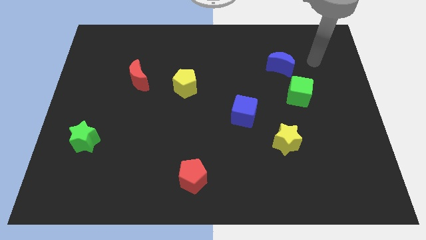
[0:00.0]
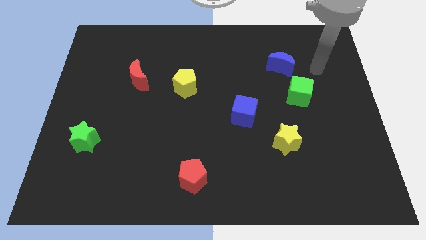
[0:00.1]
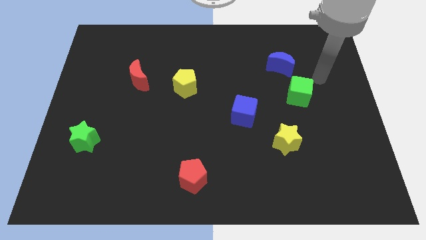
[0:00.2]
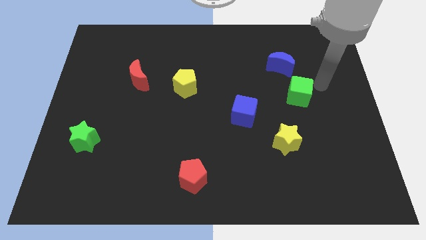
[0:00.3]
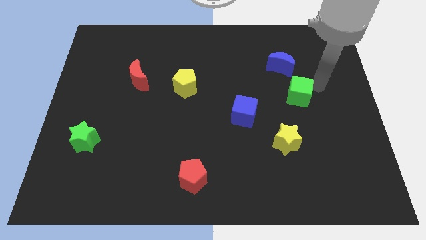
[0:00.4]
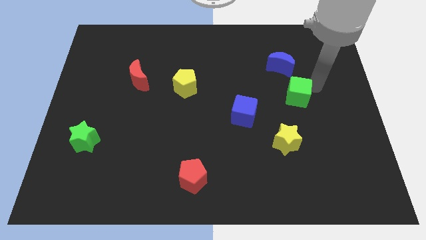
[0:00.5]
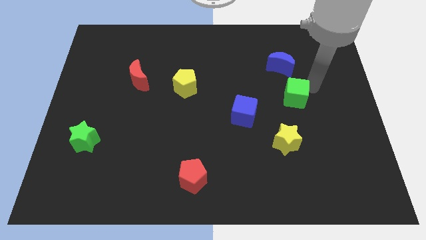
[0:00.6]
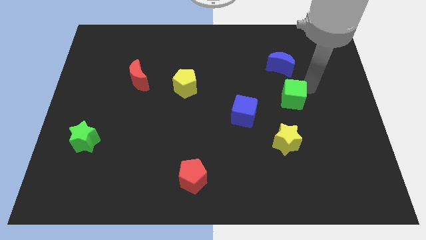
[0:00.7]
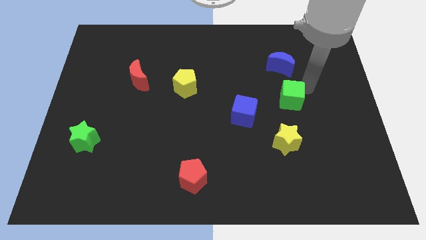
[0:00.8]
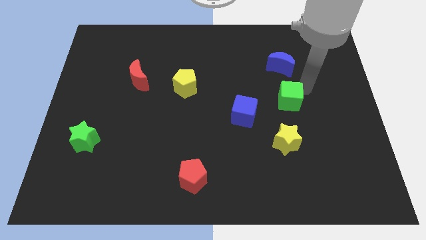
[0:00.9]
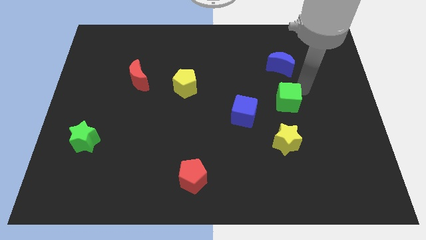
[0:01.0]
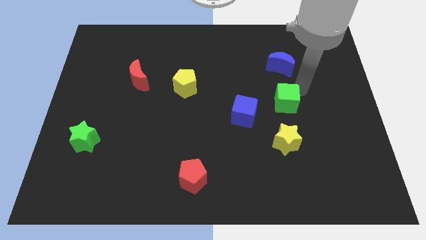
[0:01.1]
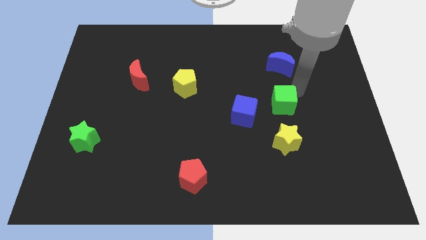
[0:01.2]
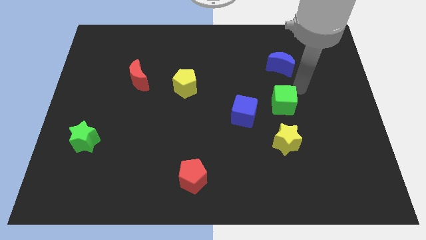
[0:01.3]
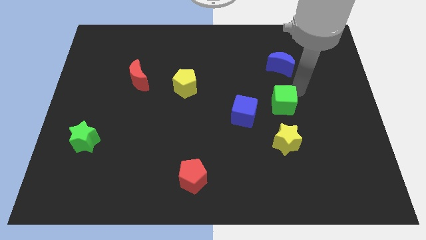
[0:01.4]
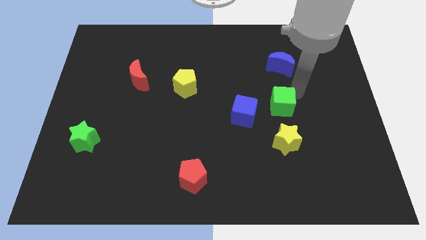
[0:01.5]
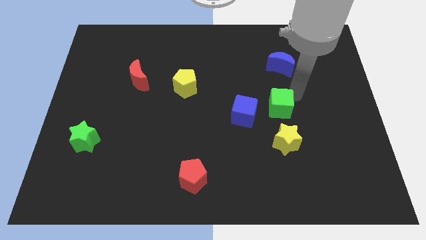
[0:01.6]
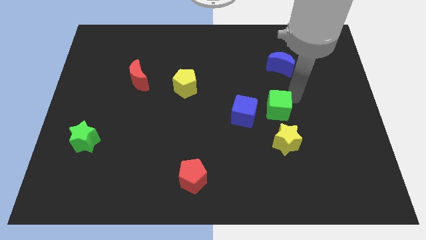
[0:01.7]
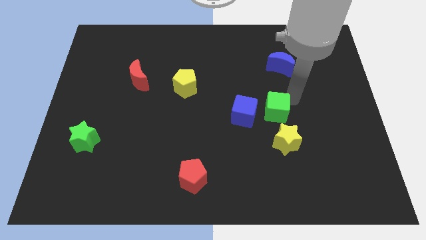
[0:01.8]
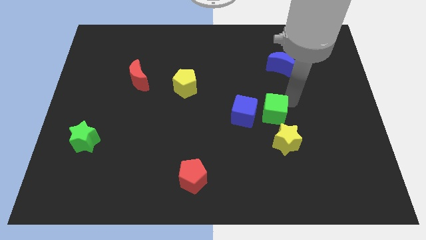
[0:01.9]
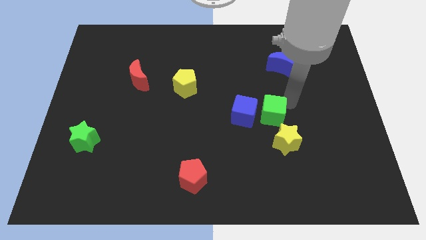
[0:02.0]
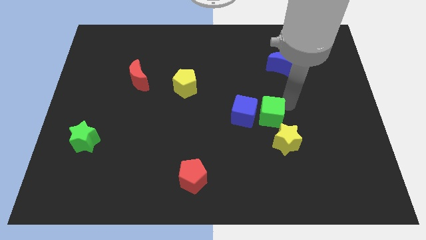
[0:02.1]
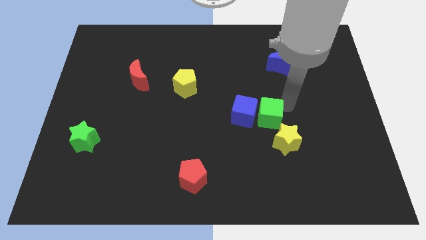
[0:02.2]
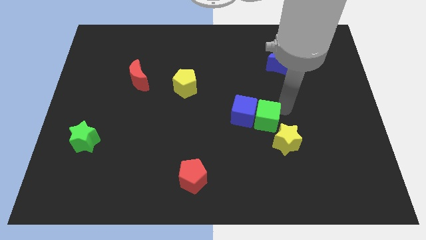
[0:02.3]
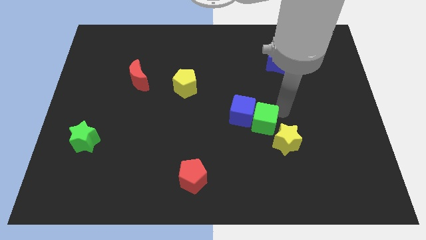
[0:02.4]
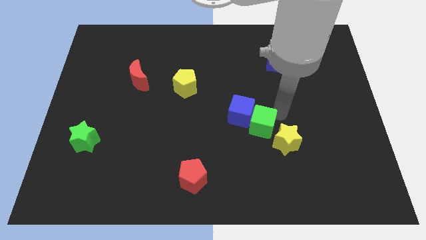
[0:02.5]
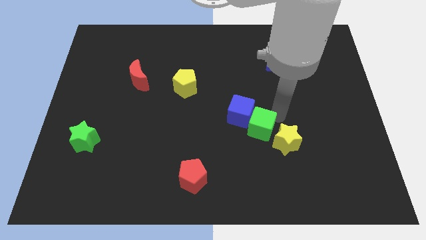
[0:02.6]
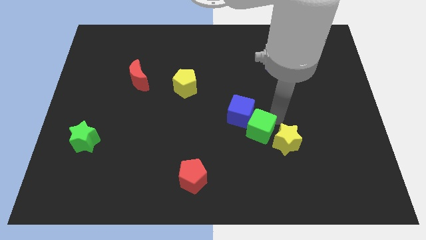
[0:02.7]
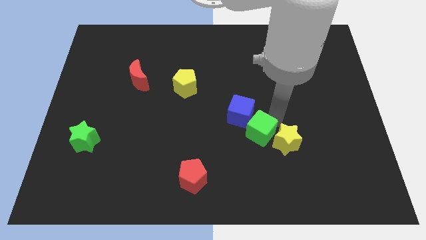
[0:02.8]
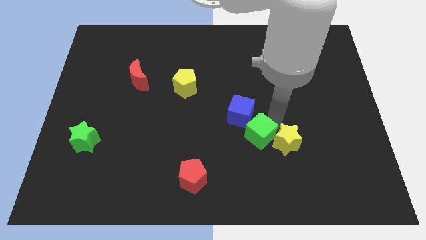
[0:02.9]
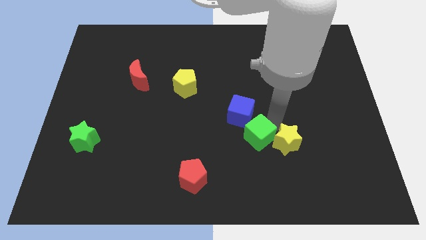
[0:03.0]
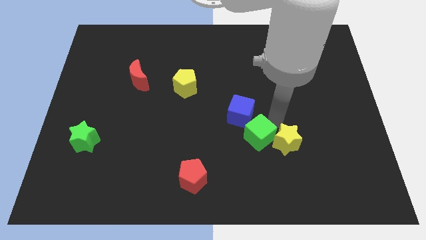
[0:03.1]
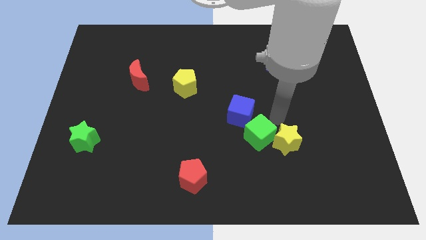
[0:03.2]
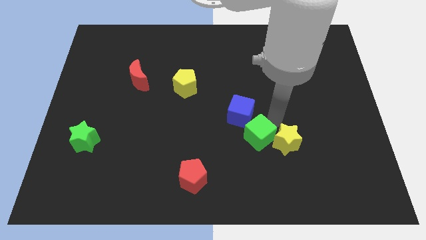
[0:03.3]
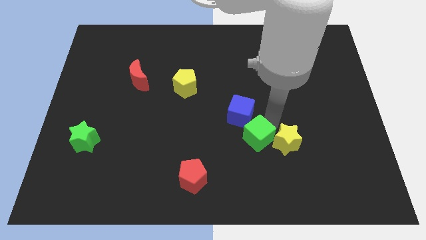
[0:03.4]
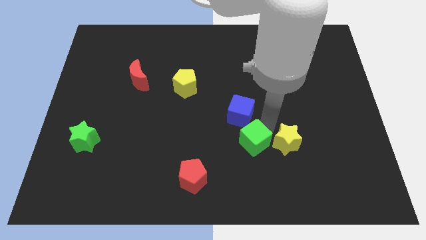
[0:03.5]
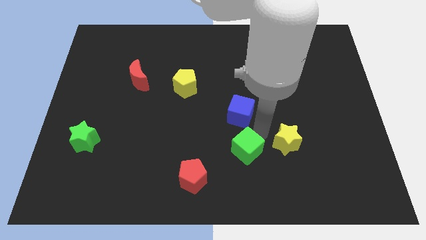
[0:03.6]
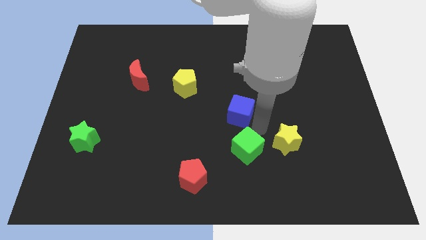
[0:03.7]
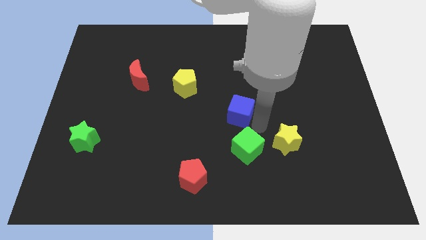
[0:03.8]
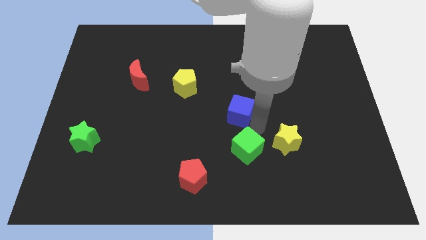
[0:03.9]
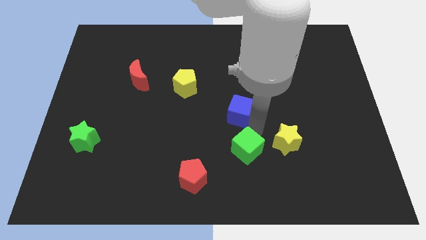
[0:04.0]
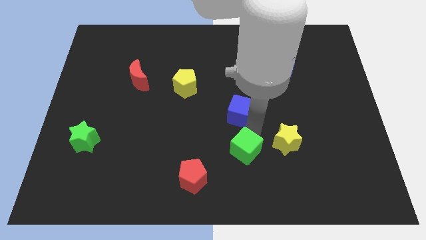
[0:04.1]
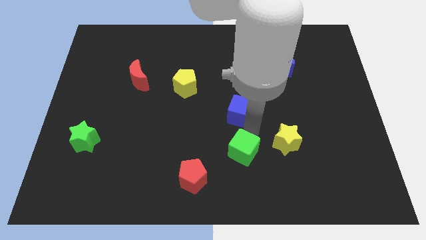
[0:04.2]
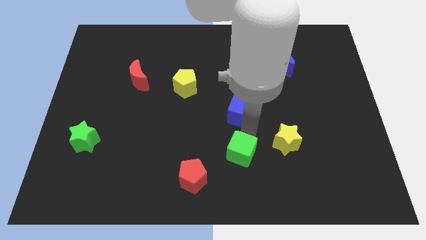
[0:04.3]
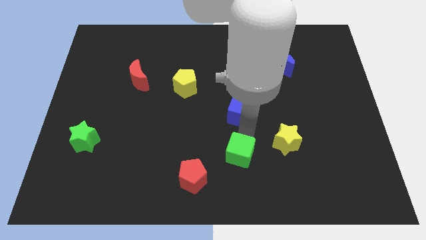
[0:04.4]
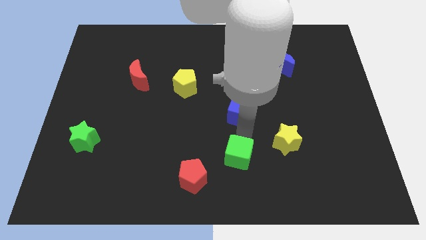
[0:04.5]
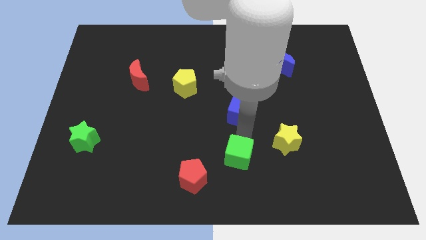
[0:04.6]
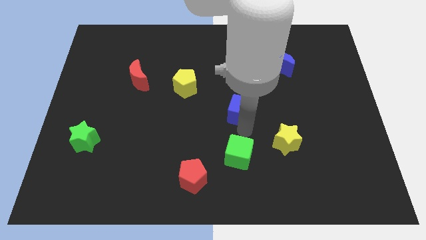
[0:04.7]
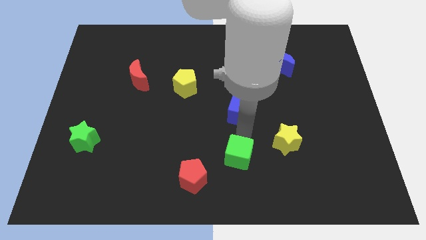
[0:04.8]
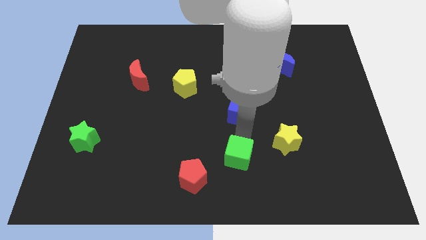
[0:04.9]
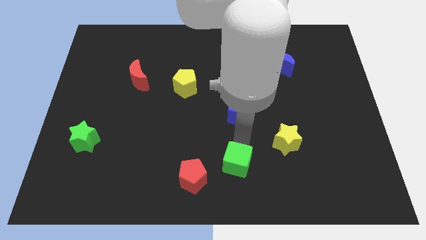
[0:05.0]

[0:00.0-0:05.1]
move the green cube to the bottom

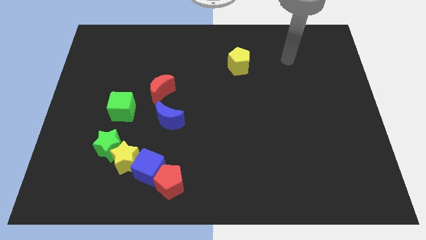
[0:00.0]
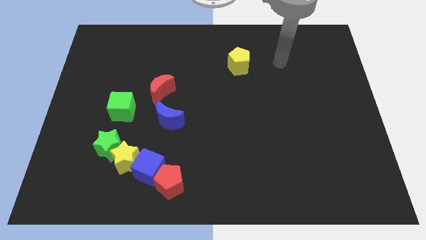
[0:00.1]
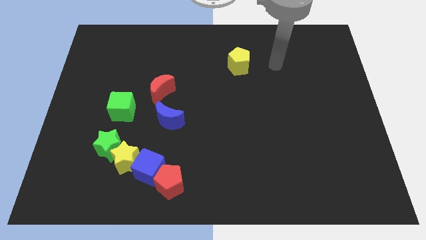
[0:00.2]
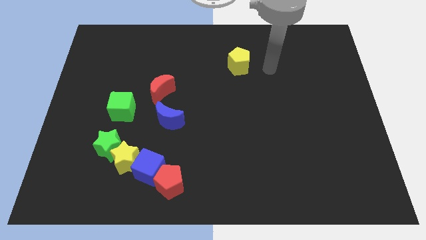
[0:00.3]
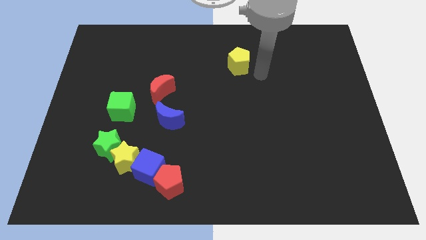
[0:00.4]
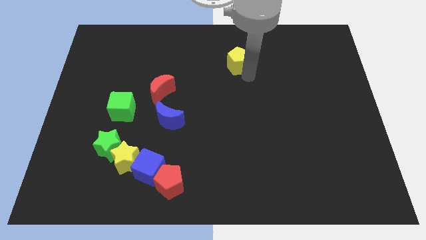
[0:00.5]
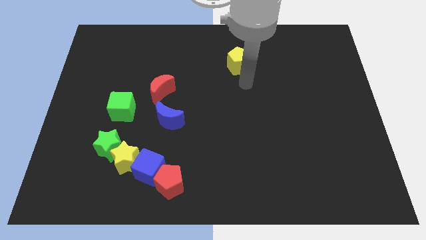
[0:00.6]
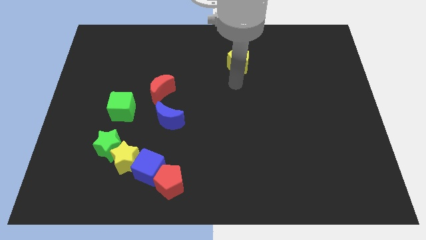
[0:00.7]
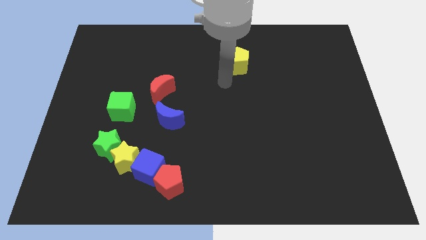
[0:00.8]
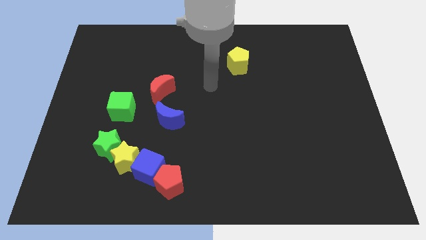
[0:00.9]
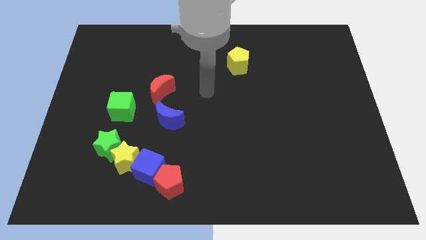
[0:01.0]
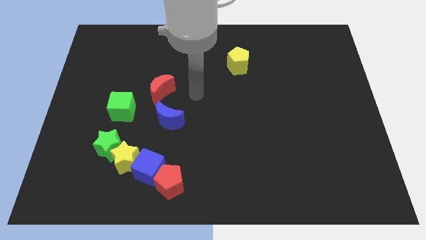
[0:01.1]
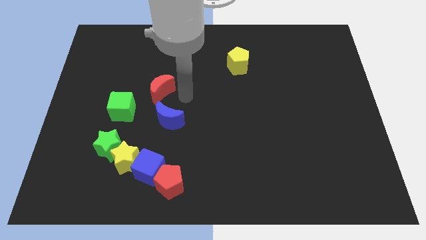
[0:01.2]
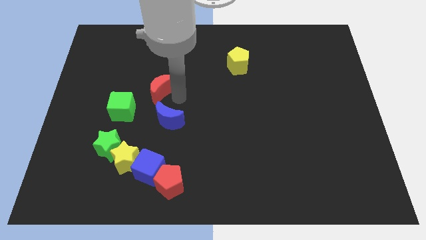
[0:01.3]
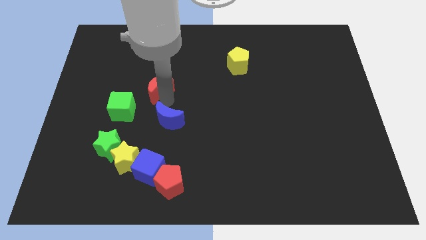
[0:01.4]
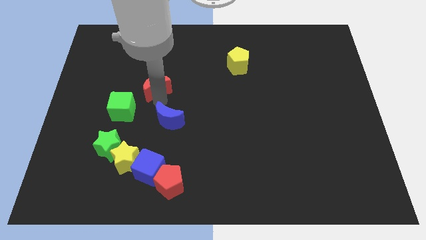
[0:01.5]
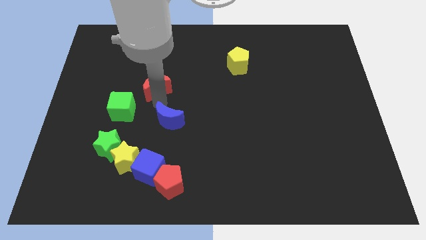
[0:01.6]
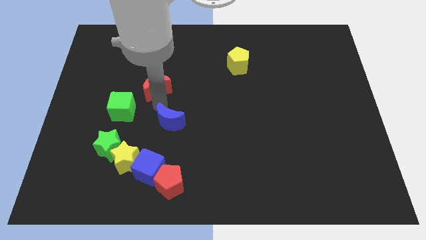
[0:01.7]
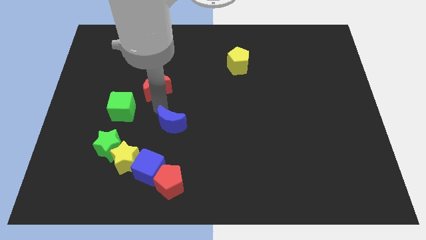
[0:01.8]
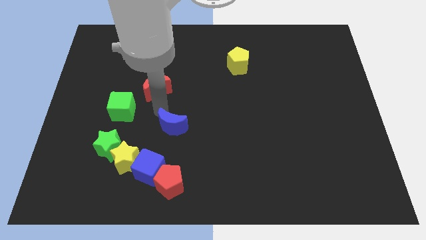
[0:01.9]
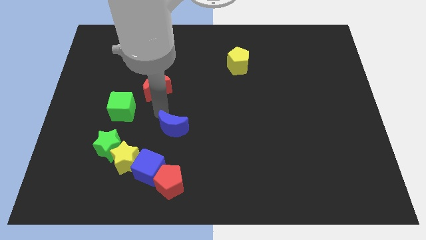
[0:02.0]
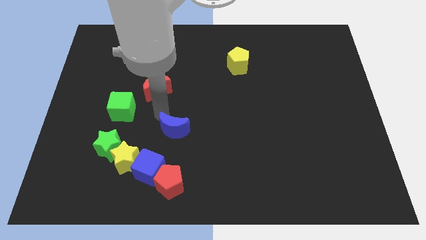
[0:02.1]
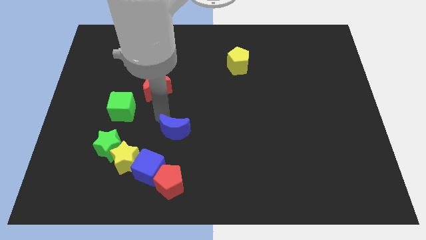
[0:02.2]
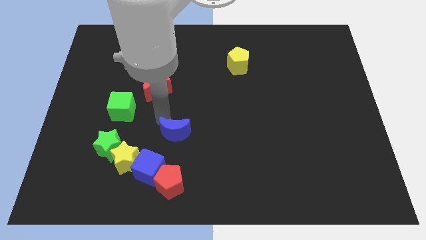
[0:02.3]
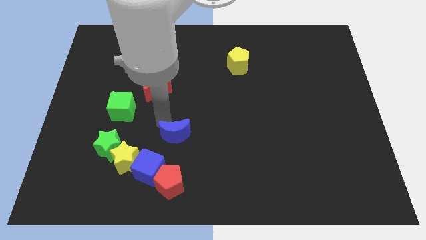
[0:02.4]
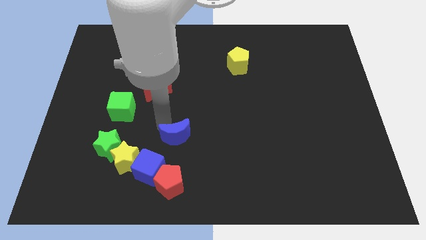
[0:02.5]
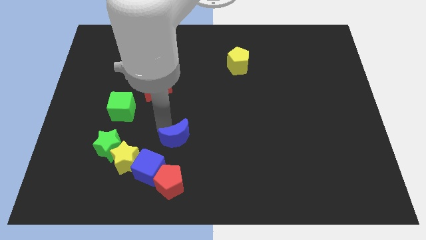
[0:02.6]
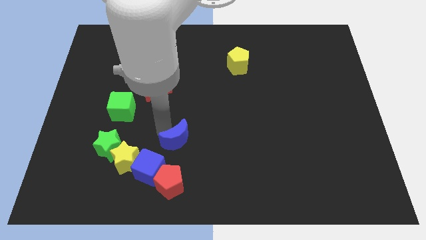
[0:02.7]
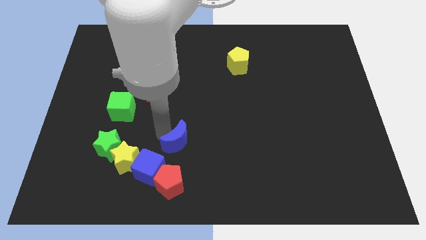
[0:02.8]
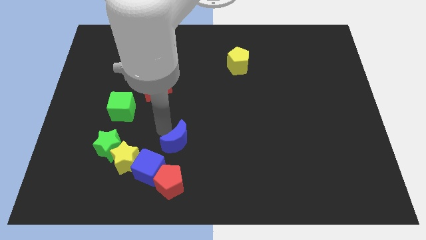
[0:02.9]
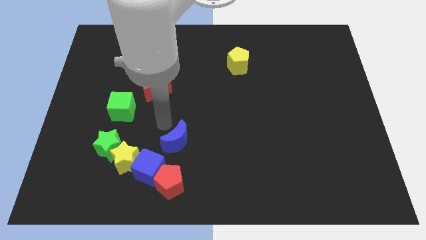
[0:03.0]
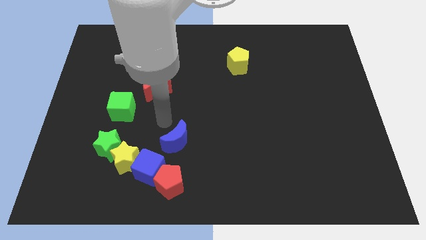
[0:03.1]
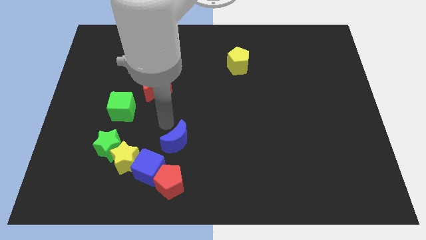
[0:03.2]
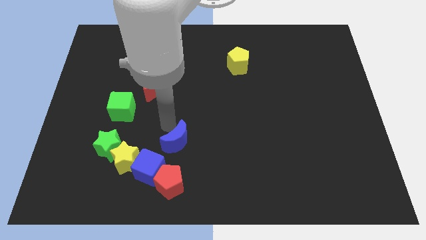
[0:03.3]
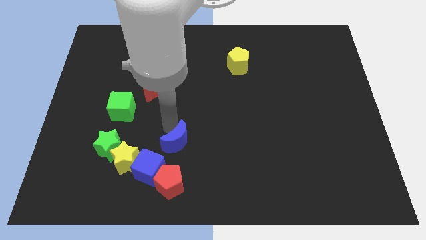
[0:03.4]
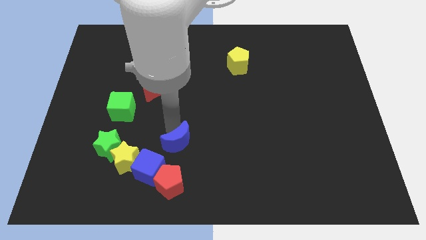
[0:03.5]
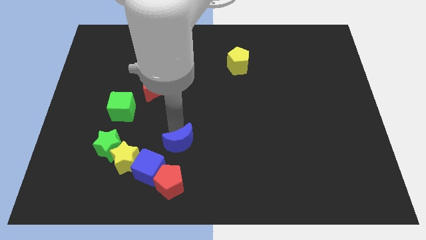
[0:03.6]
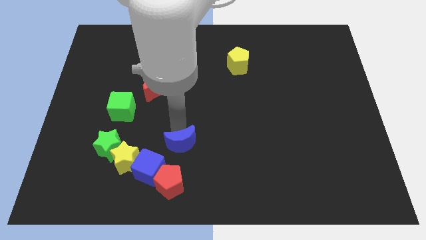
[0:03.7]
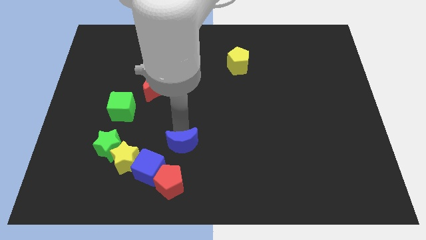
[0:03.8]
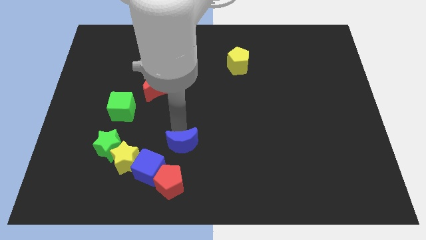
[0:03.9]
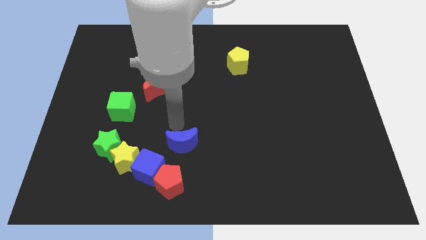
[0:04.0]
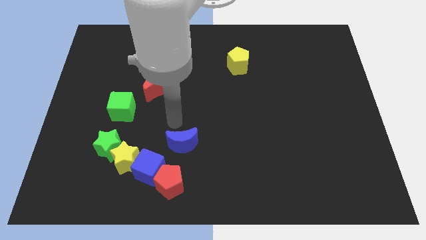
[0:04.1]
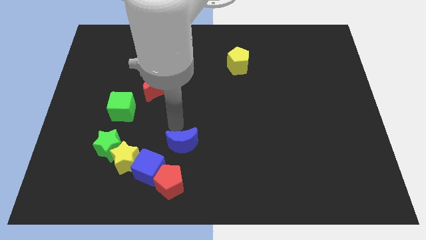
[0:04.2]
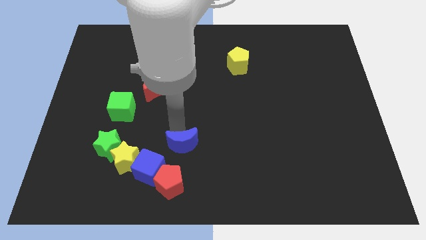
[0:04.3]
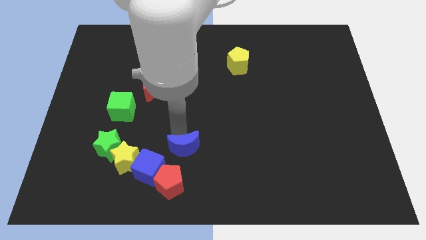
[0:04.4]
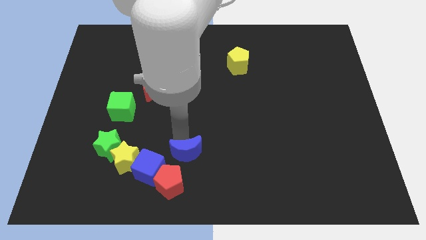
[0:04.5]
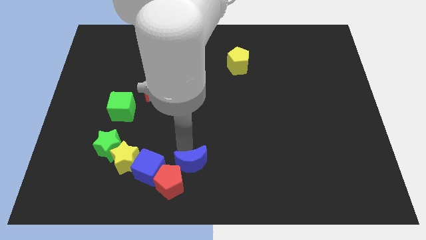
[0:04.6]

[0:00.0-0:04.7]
move the blue moon to the bottom side
